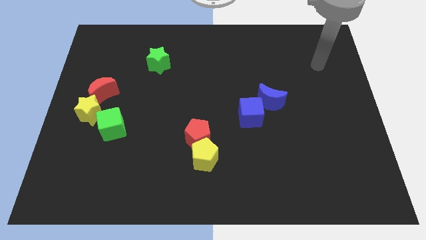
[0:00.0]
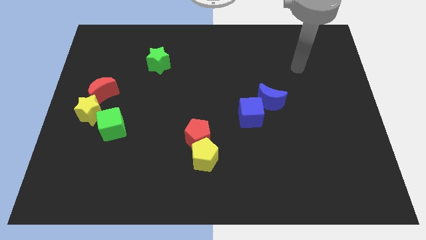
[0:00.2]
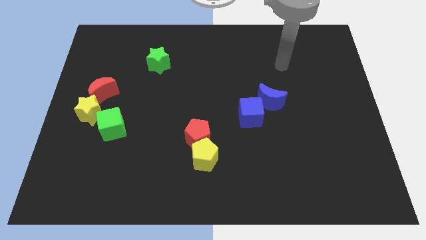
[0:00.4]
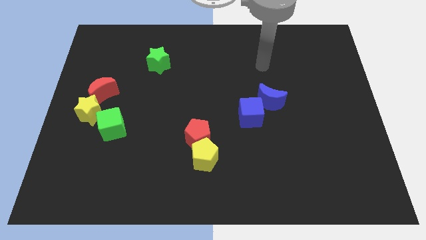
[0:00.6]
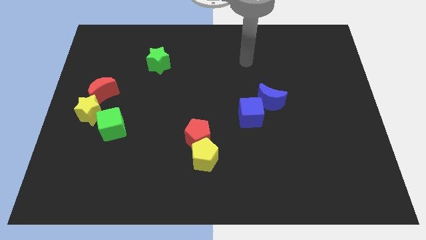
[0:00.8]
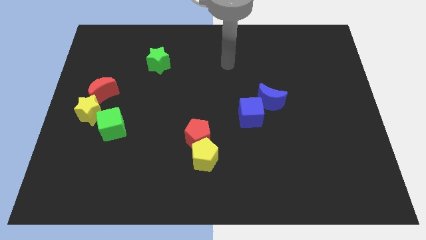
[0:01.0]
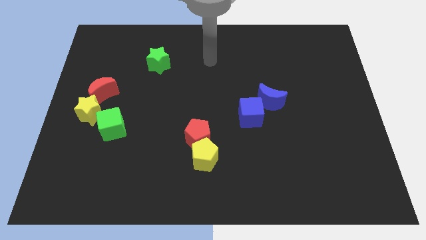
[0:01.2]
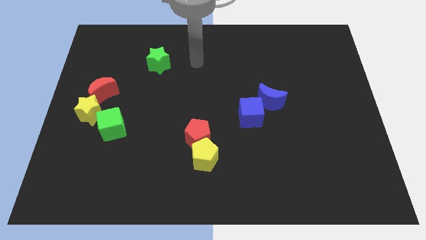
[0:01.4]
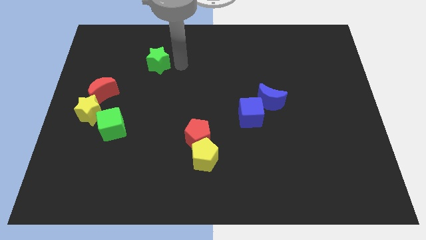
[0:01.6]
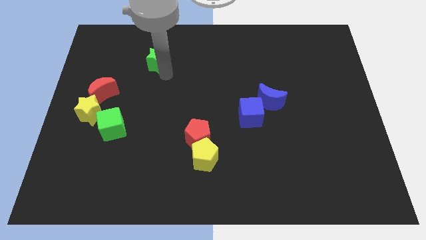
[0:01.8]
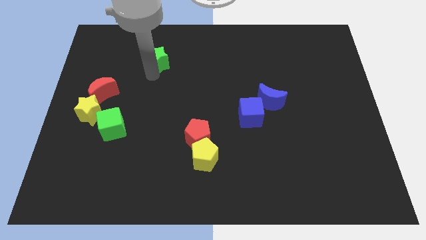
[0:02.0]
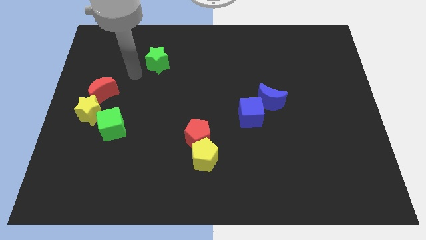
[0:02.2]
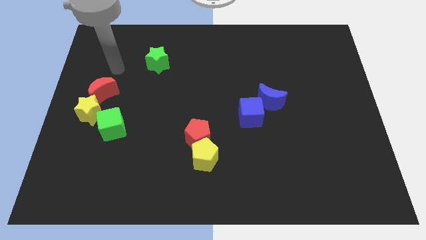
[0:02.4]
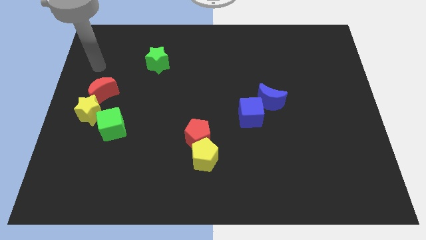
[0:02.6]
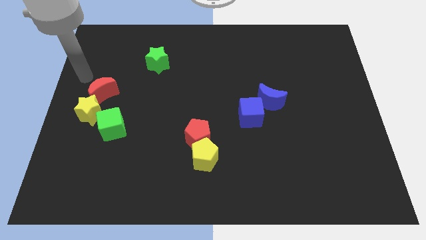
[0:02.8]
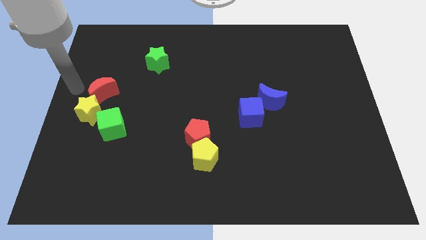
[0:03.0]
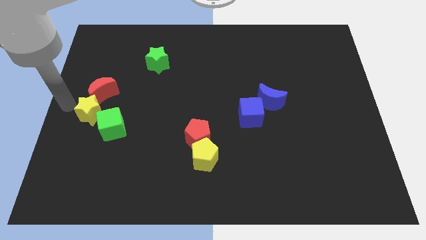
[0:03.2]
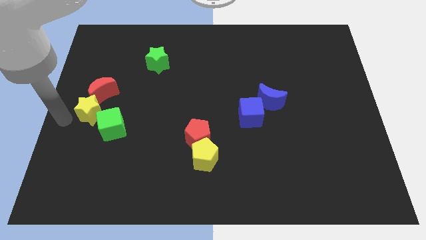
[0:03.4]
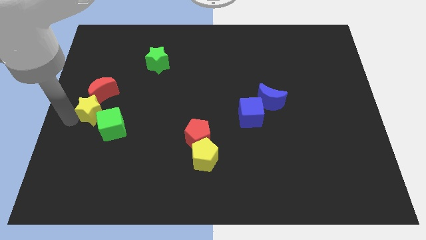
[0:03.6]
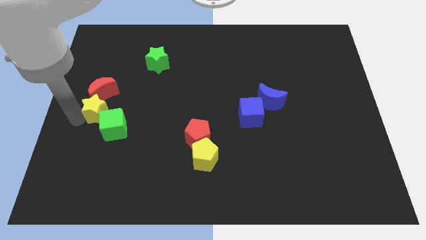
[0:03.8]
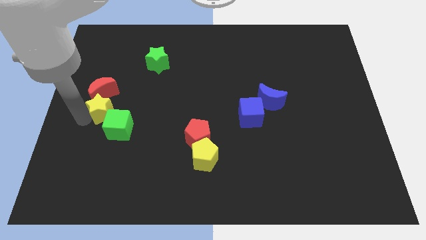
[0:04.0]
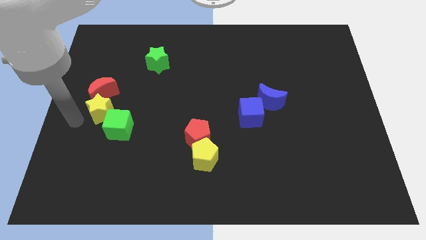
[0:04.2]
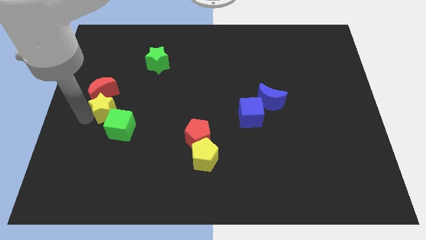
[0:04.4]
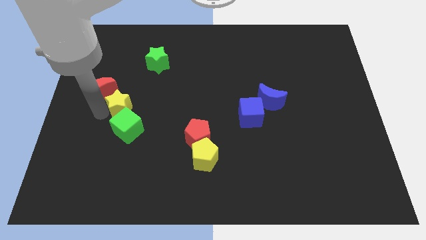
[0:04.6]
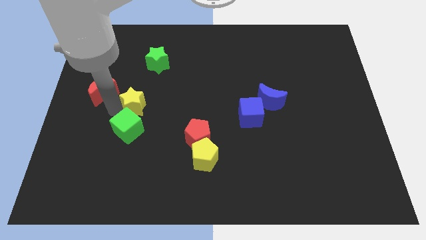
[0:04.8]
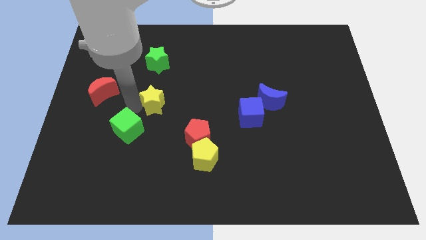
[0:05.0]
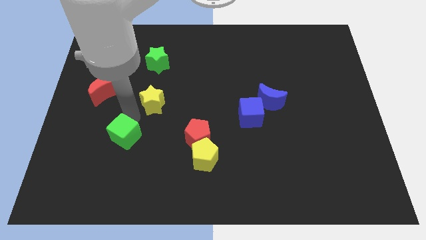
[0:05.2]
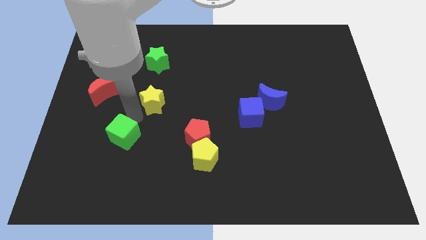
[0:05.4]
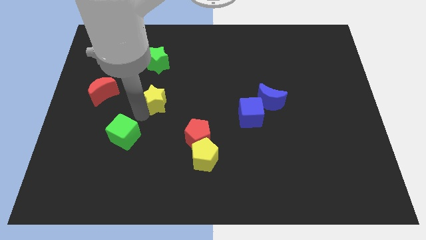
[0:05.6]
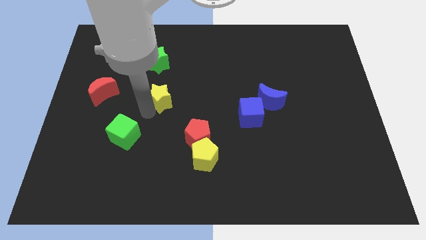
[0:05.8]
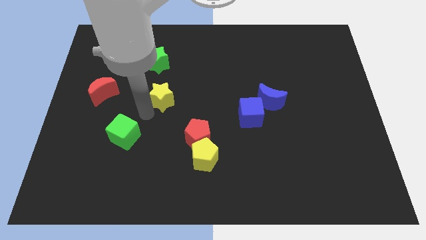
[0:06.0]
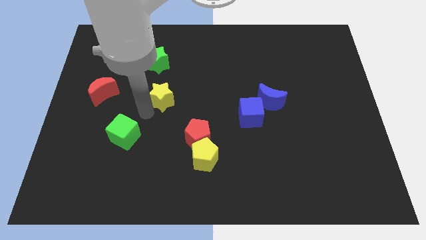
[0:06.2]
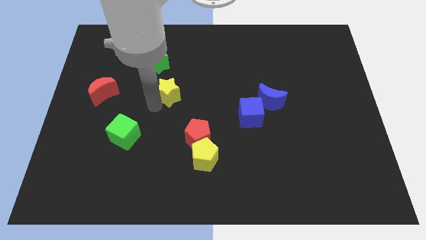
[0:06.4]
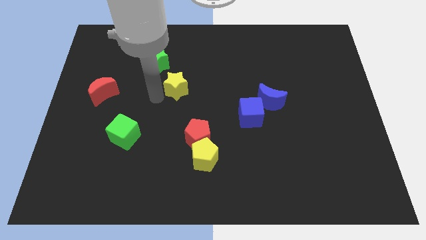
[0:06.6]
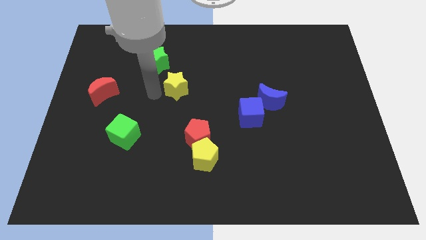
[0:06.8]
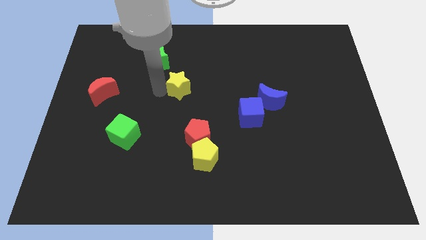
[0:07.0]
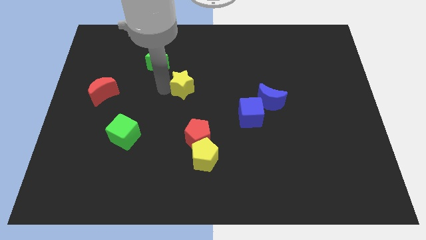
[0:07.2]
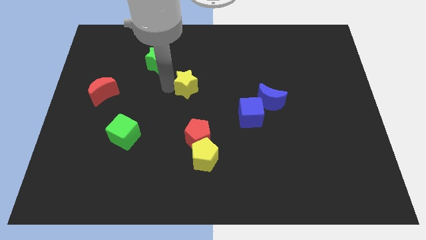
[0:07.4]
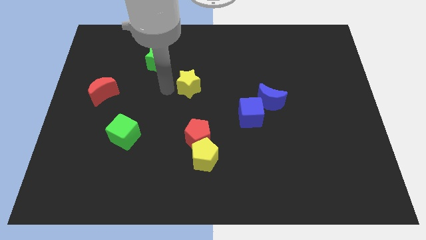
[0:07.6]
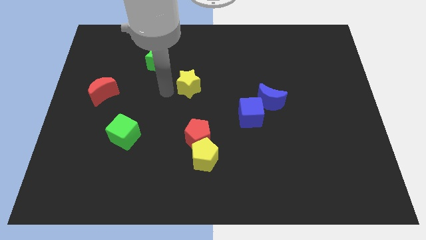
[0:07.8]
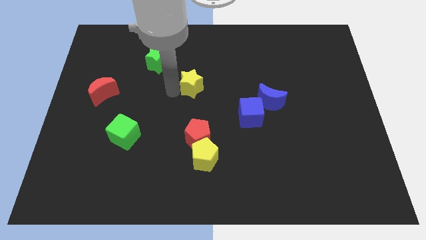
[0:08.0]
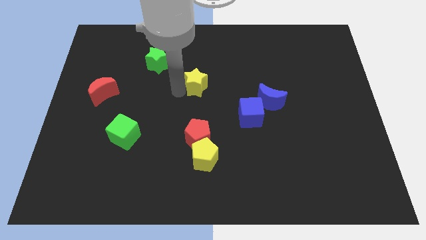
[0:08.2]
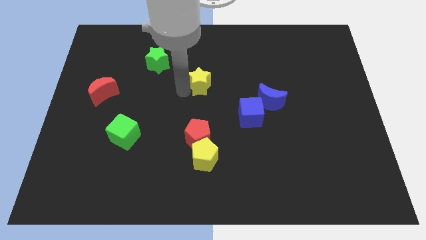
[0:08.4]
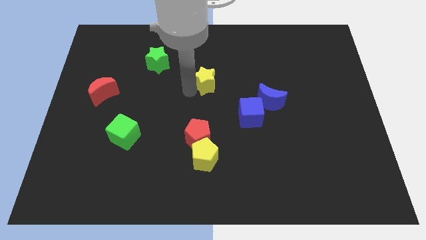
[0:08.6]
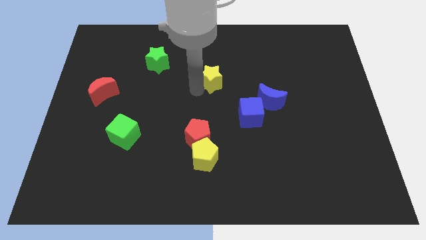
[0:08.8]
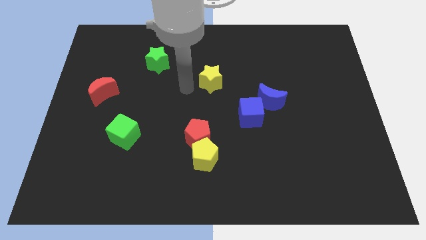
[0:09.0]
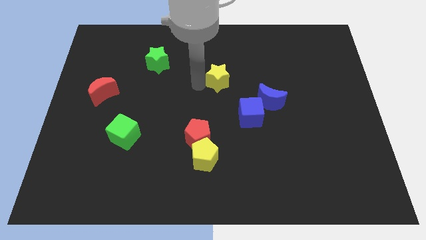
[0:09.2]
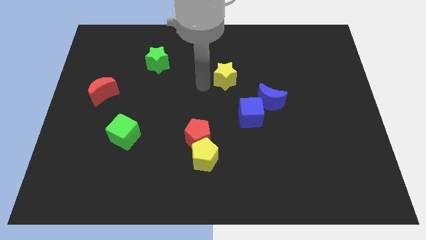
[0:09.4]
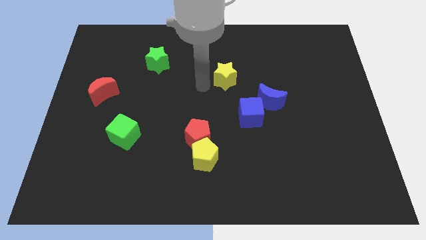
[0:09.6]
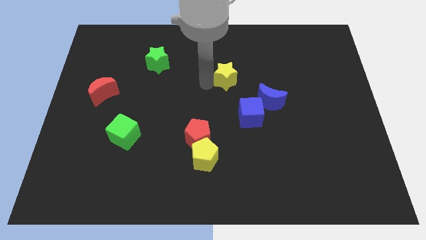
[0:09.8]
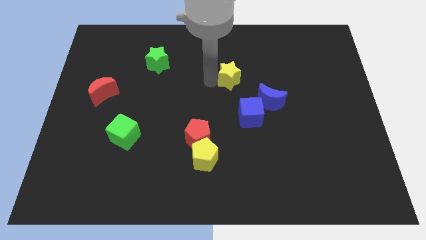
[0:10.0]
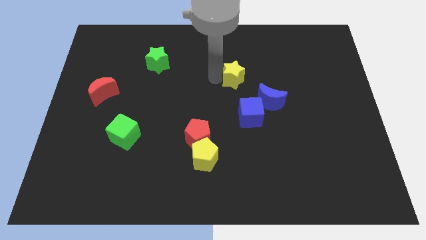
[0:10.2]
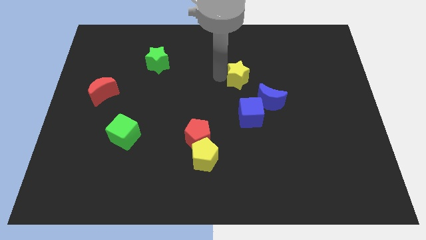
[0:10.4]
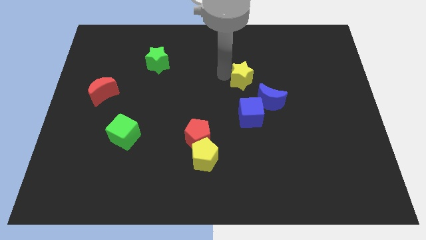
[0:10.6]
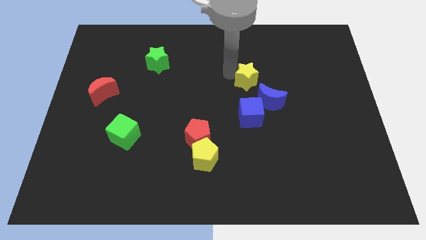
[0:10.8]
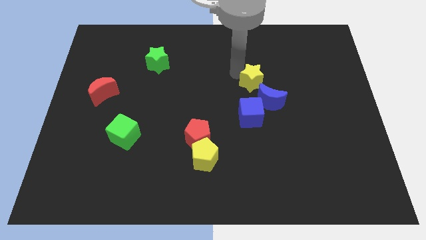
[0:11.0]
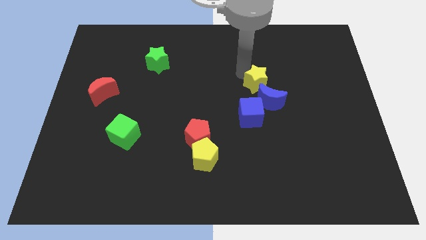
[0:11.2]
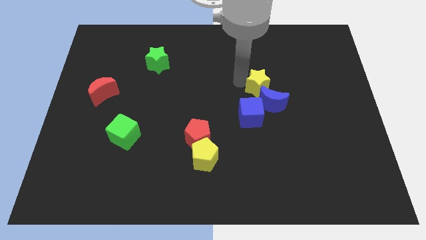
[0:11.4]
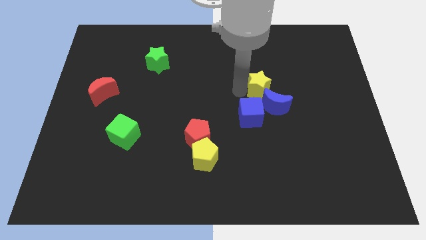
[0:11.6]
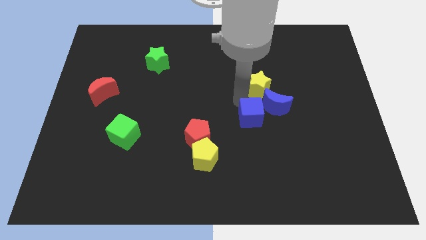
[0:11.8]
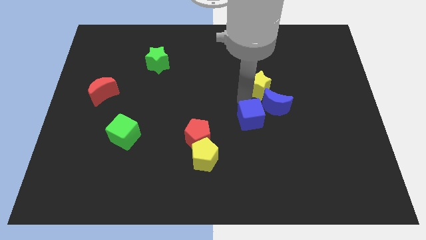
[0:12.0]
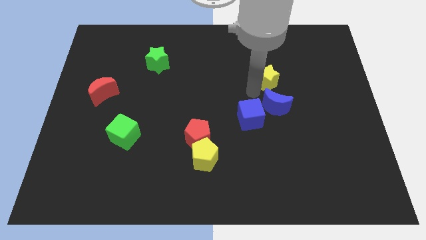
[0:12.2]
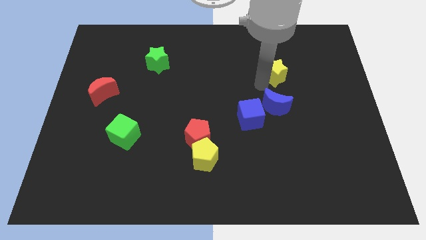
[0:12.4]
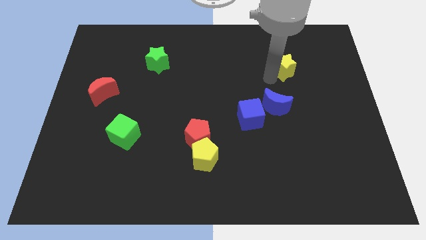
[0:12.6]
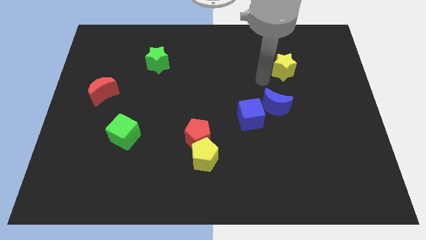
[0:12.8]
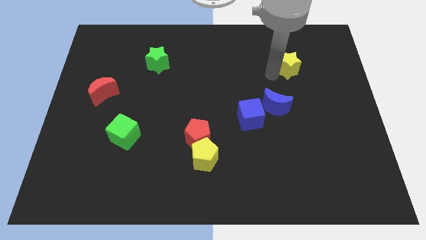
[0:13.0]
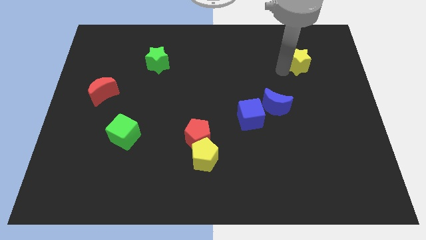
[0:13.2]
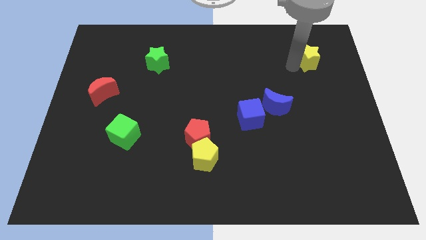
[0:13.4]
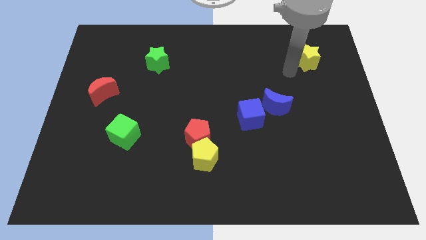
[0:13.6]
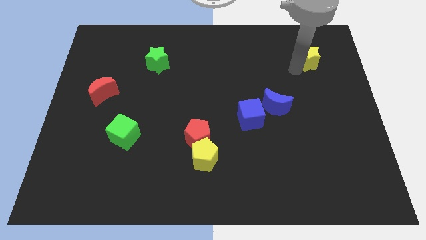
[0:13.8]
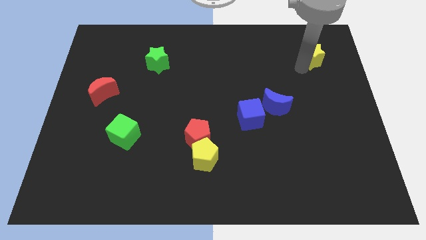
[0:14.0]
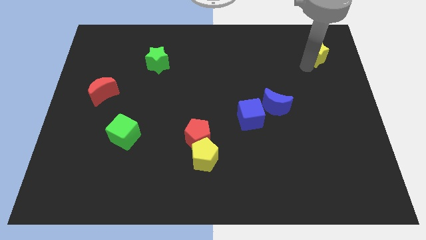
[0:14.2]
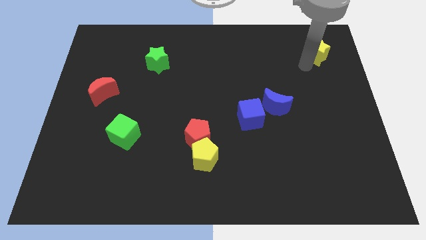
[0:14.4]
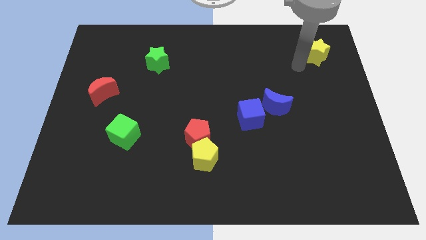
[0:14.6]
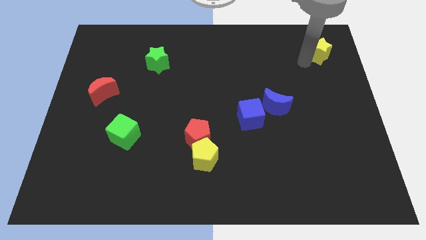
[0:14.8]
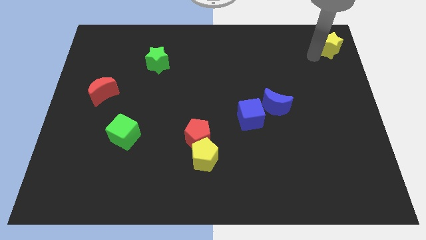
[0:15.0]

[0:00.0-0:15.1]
move the yellow star to the top right corner
